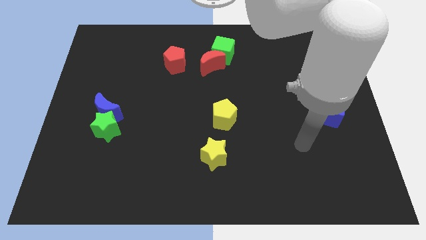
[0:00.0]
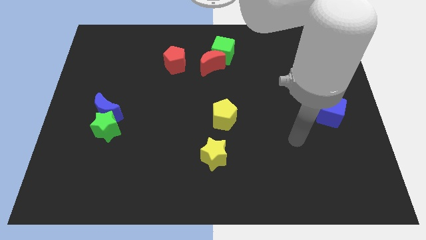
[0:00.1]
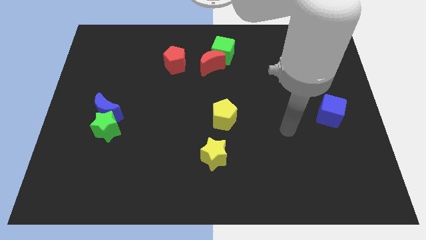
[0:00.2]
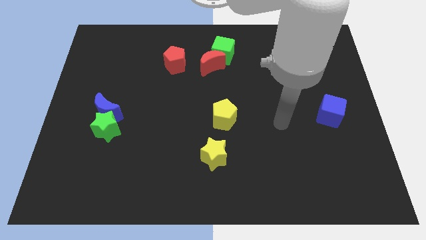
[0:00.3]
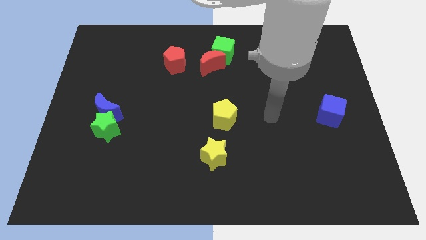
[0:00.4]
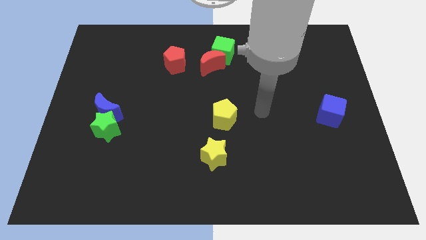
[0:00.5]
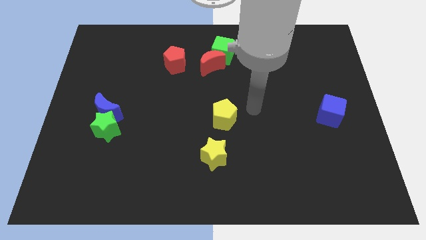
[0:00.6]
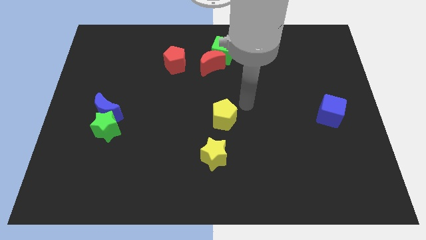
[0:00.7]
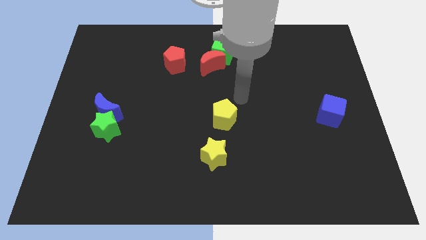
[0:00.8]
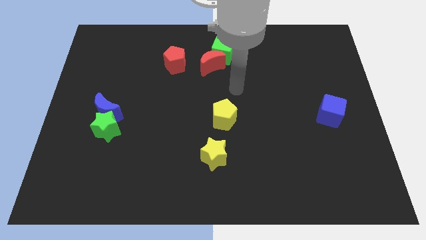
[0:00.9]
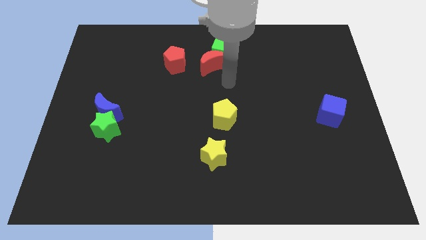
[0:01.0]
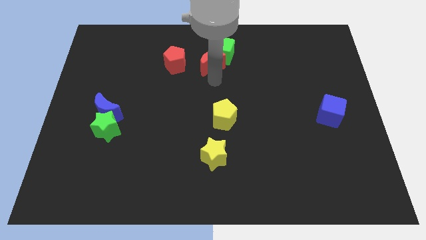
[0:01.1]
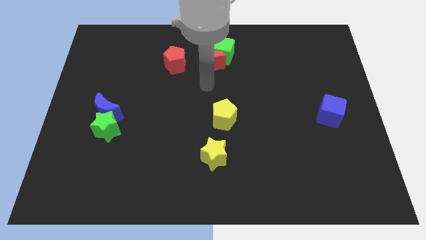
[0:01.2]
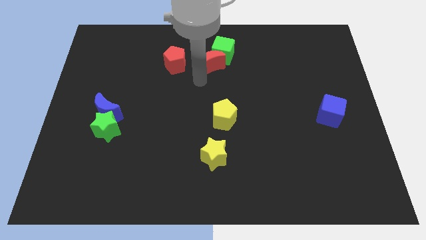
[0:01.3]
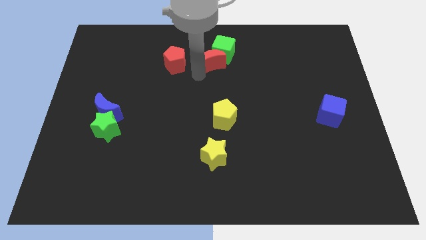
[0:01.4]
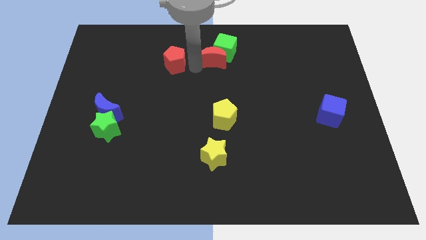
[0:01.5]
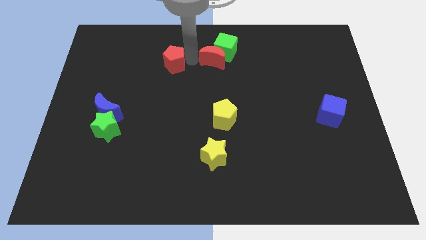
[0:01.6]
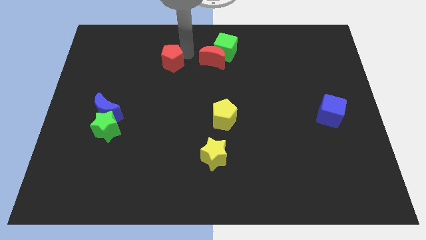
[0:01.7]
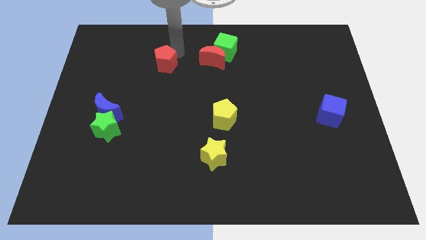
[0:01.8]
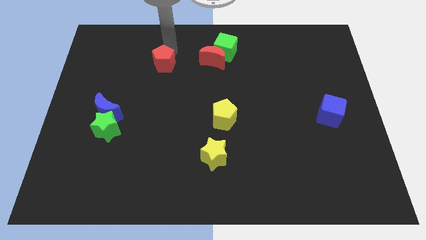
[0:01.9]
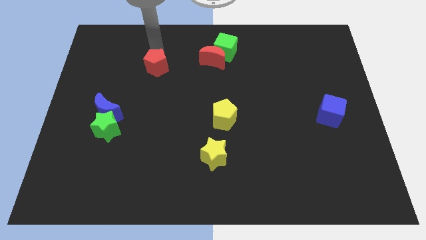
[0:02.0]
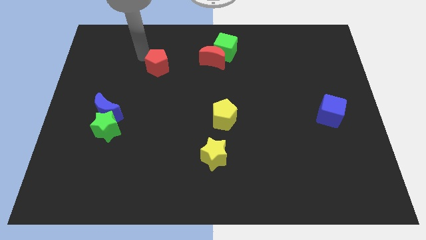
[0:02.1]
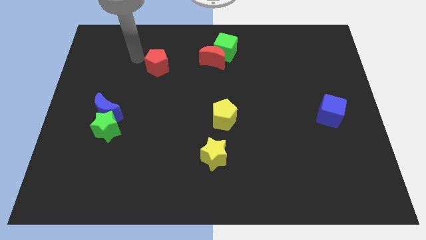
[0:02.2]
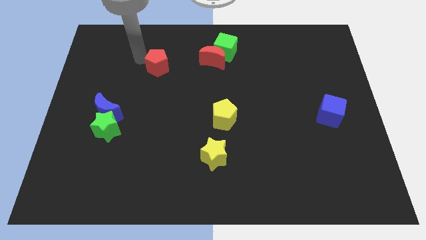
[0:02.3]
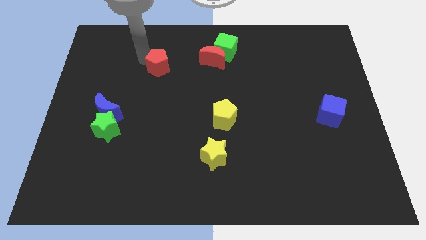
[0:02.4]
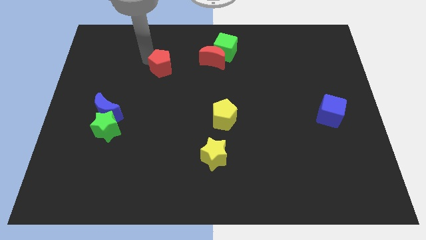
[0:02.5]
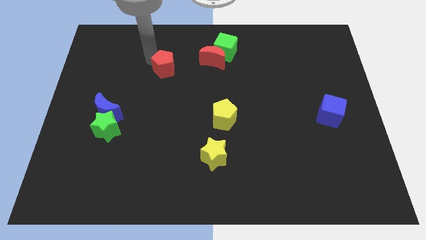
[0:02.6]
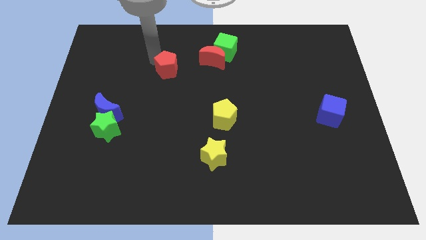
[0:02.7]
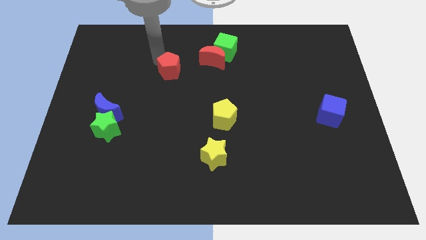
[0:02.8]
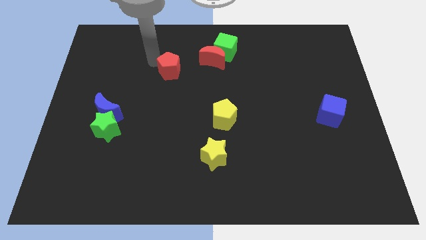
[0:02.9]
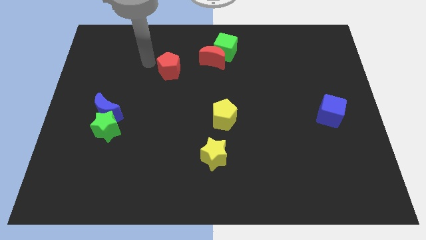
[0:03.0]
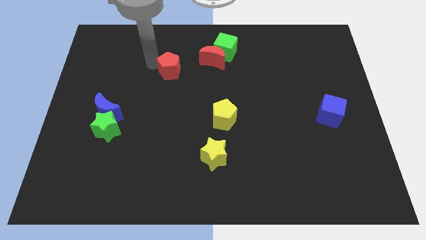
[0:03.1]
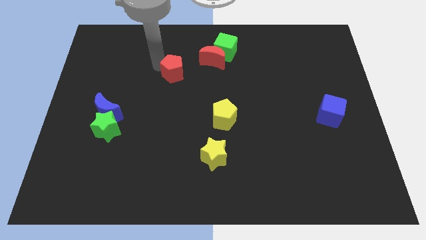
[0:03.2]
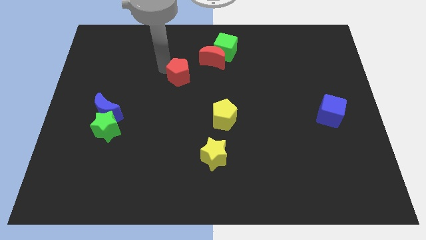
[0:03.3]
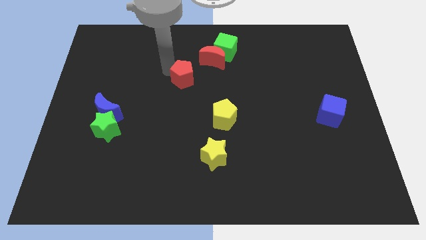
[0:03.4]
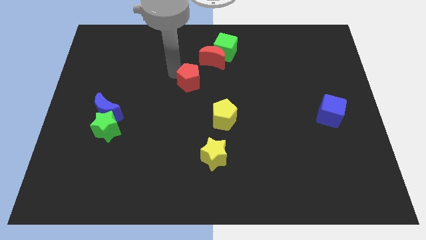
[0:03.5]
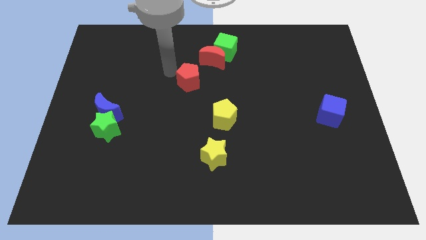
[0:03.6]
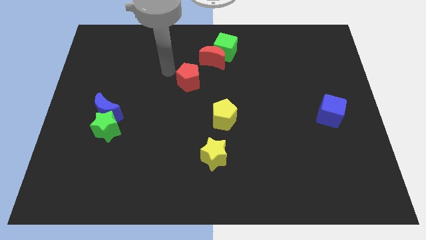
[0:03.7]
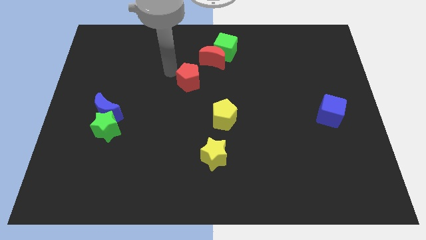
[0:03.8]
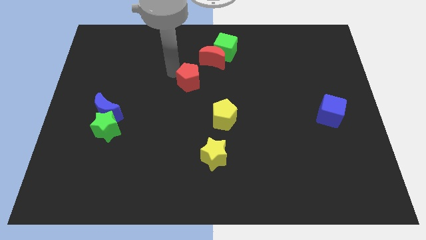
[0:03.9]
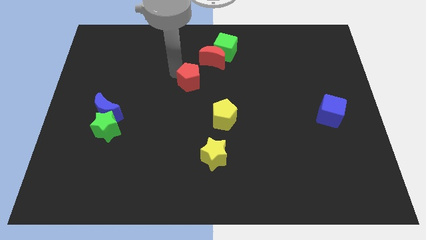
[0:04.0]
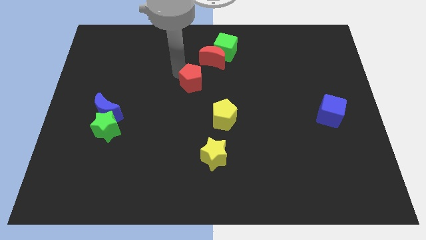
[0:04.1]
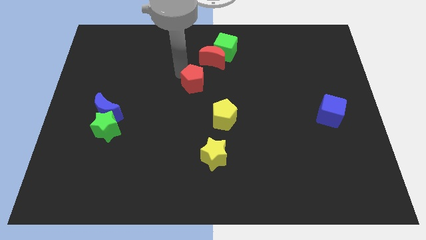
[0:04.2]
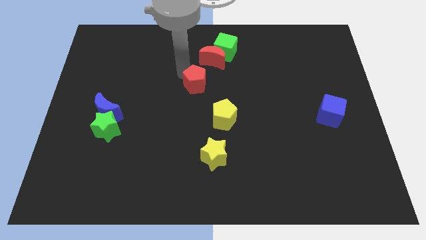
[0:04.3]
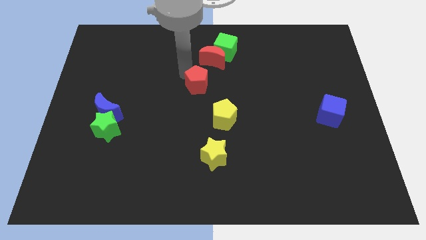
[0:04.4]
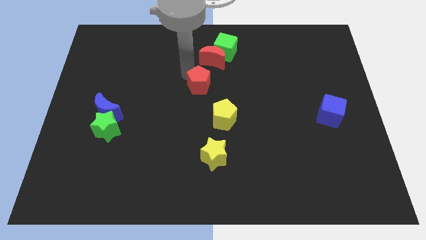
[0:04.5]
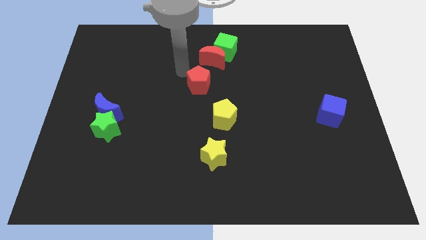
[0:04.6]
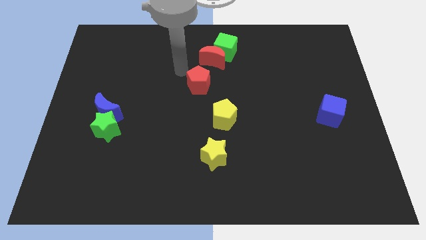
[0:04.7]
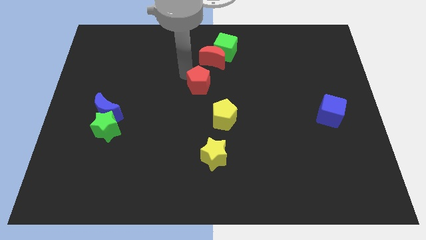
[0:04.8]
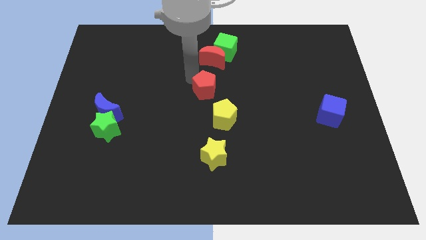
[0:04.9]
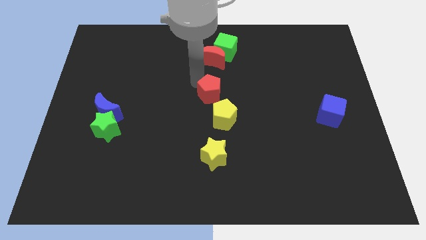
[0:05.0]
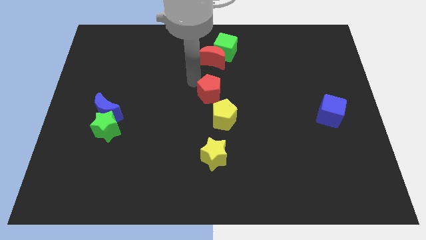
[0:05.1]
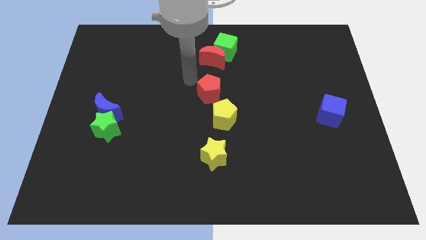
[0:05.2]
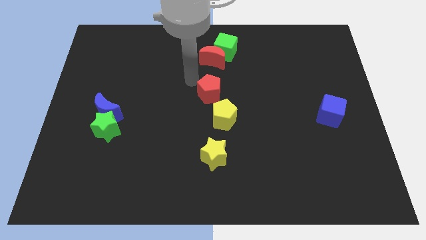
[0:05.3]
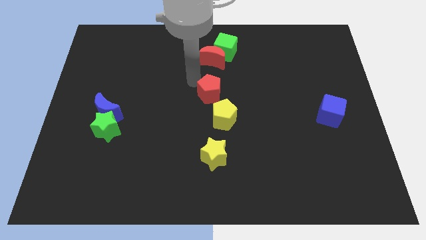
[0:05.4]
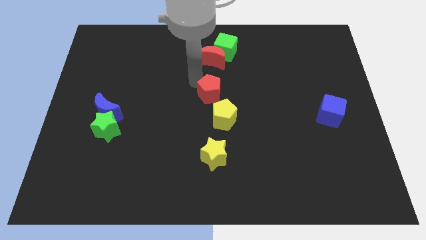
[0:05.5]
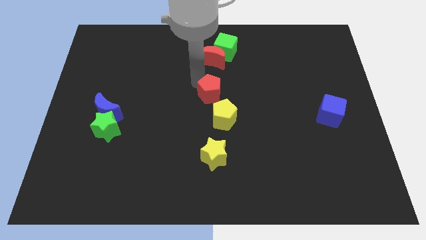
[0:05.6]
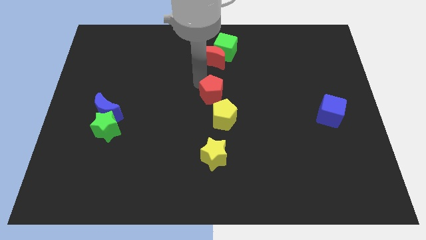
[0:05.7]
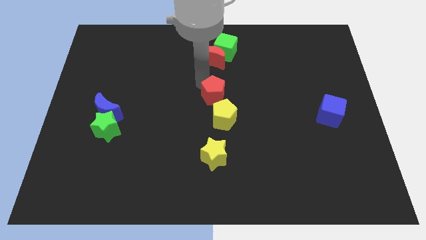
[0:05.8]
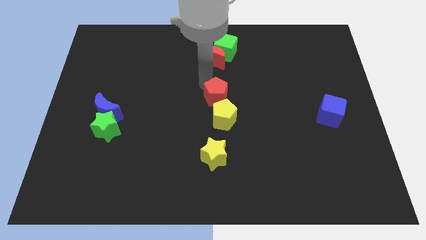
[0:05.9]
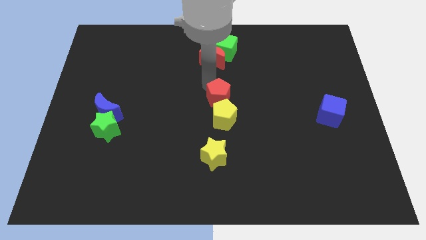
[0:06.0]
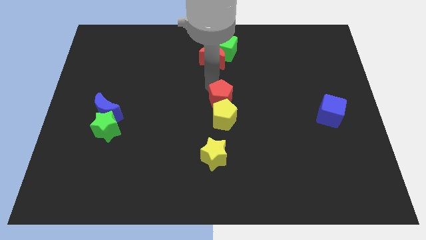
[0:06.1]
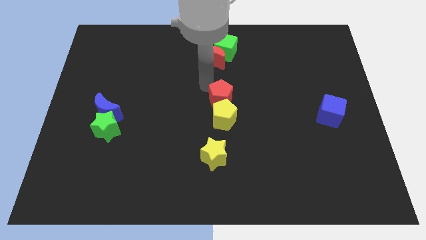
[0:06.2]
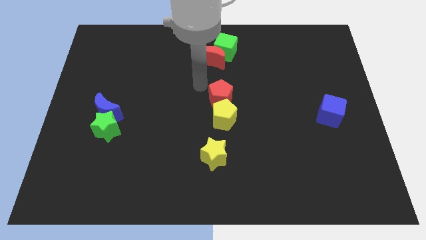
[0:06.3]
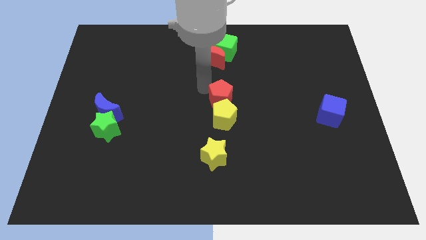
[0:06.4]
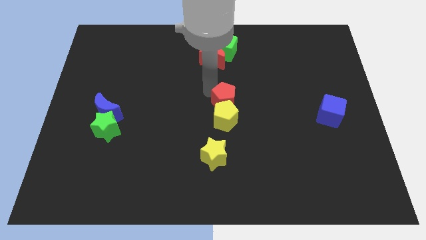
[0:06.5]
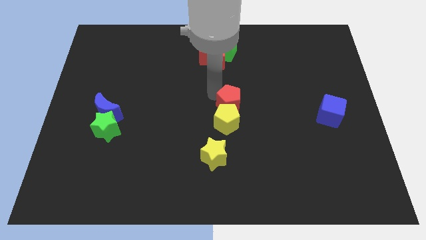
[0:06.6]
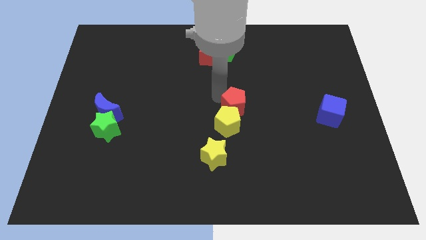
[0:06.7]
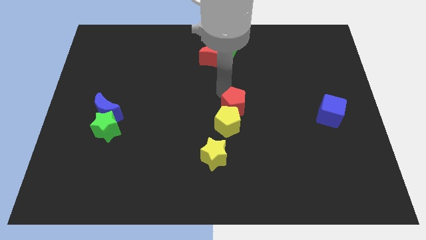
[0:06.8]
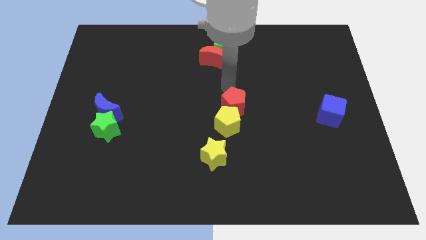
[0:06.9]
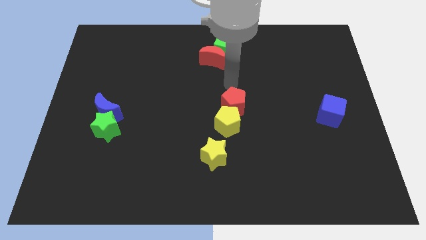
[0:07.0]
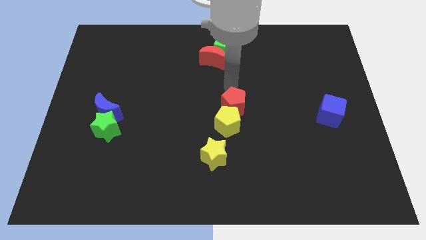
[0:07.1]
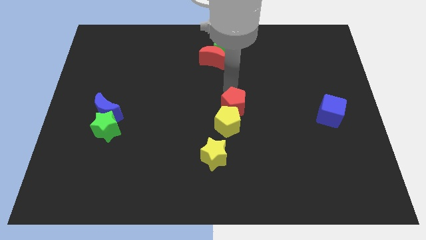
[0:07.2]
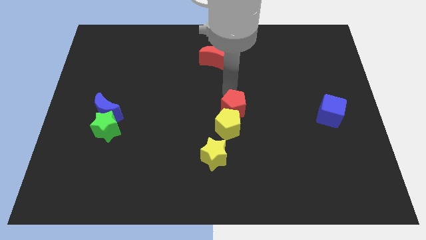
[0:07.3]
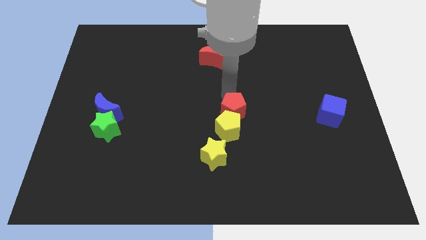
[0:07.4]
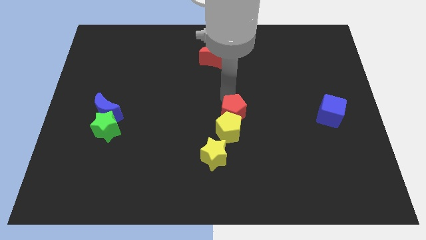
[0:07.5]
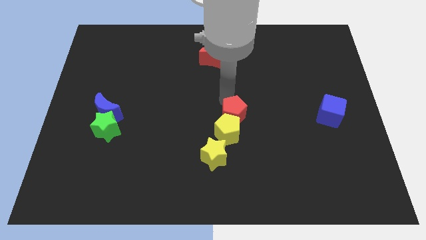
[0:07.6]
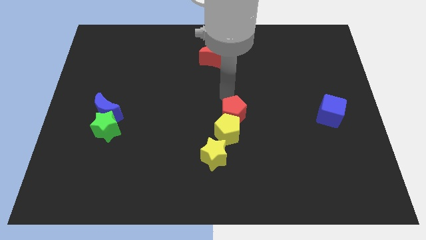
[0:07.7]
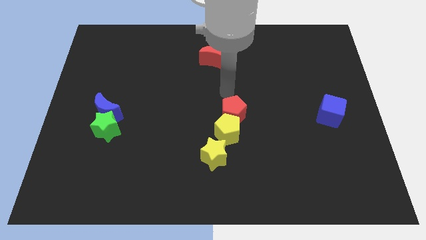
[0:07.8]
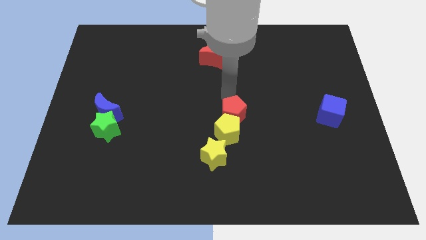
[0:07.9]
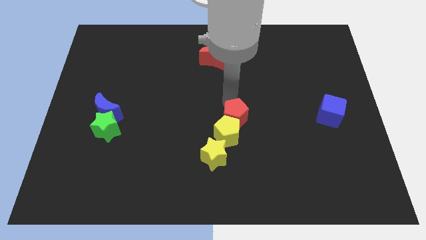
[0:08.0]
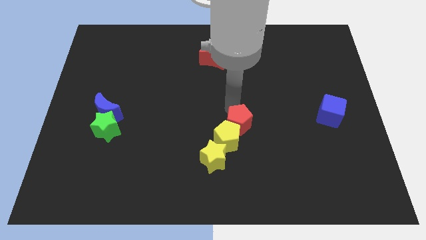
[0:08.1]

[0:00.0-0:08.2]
put the red pentagon diagonally up and to the right of the yellow star
